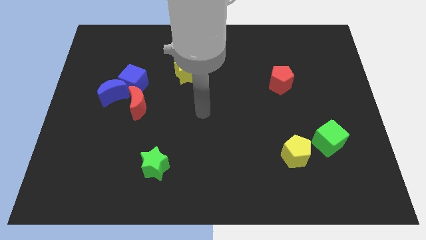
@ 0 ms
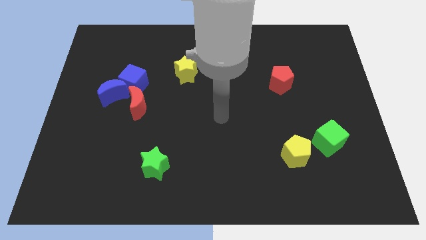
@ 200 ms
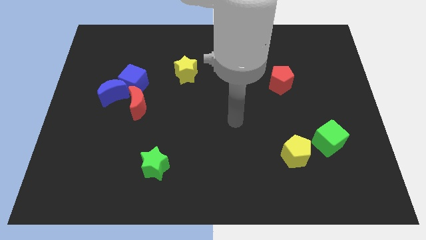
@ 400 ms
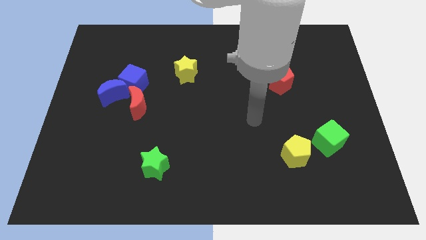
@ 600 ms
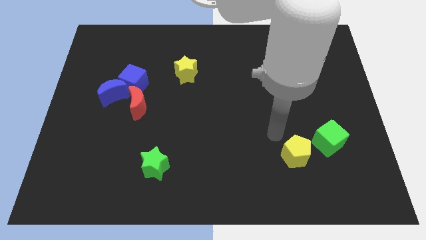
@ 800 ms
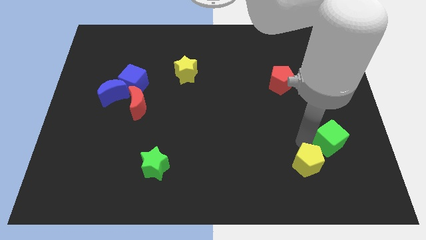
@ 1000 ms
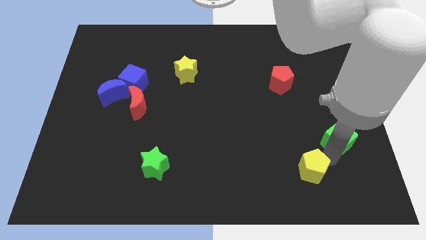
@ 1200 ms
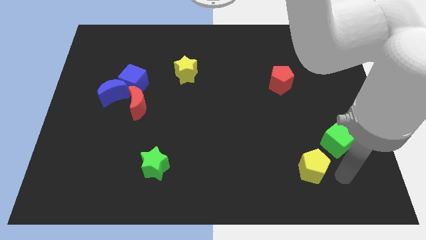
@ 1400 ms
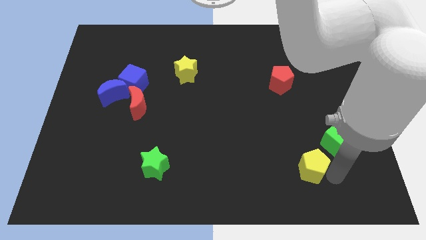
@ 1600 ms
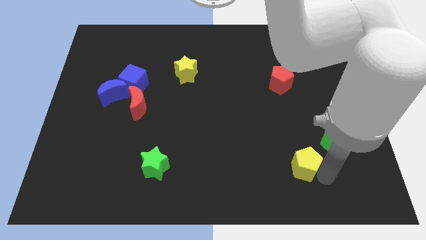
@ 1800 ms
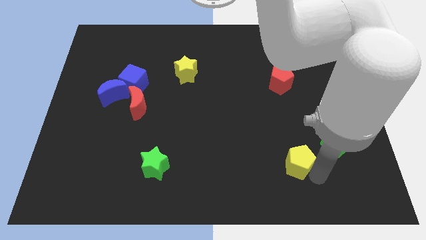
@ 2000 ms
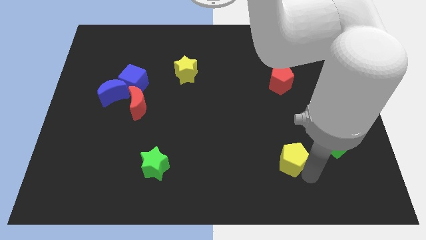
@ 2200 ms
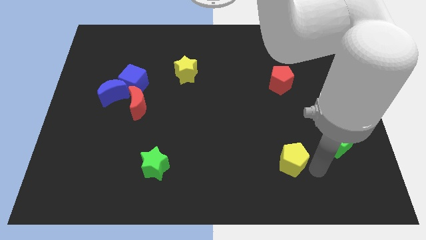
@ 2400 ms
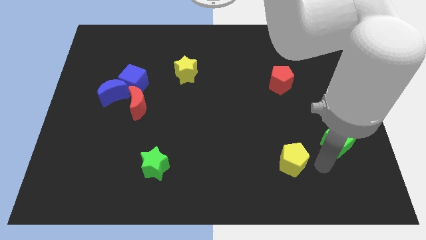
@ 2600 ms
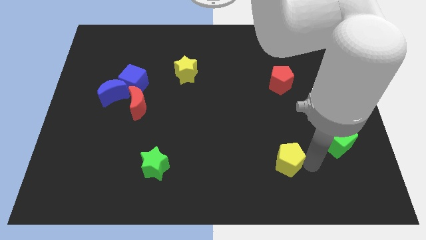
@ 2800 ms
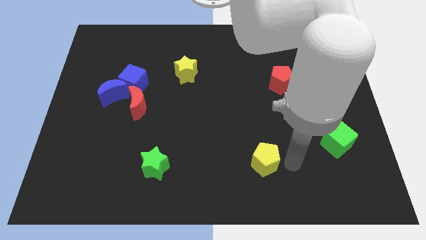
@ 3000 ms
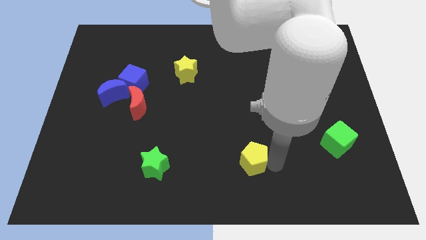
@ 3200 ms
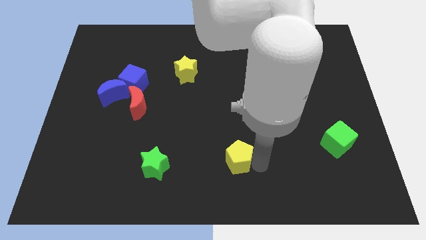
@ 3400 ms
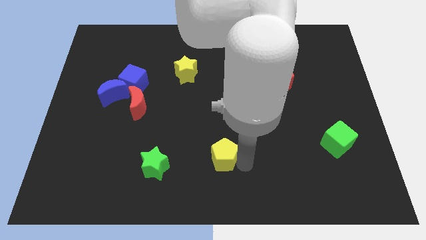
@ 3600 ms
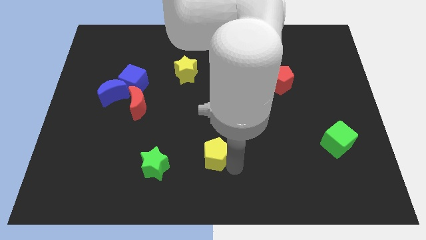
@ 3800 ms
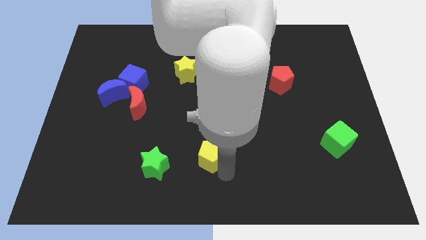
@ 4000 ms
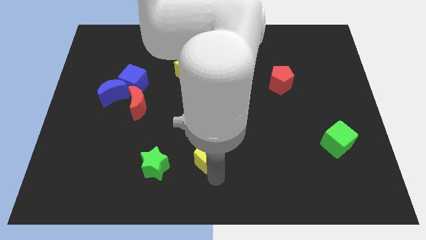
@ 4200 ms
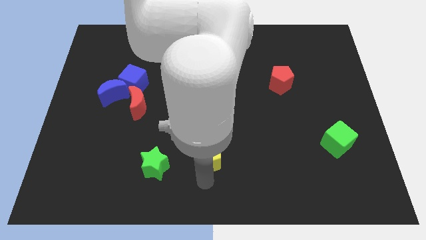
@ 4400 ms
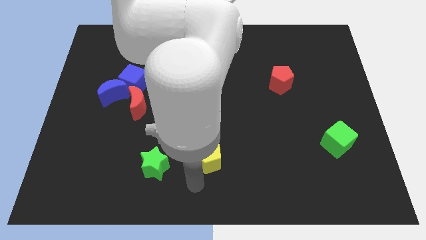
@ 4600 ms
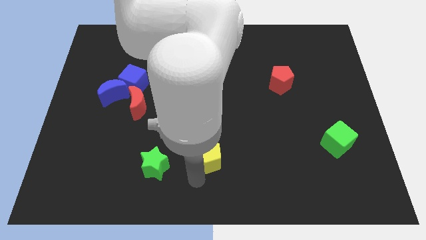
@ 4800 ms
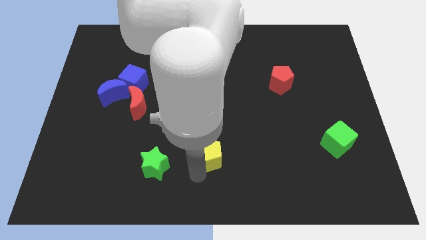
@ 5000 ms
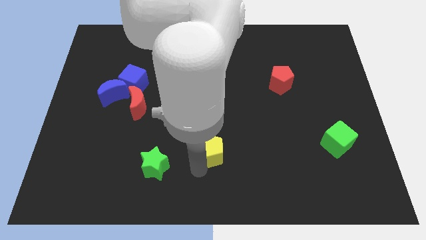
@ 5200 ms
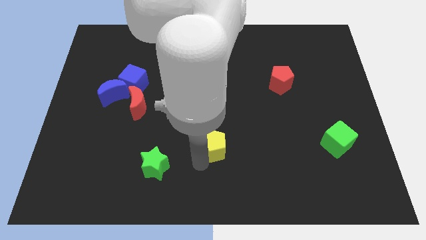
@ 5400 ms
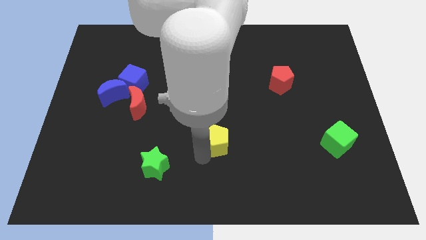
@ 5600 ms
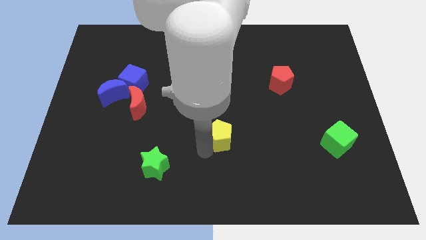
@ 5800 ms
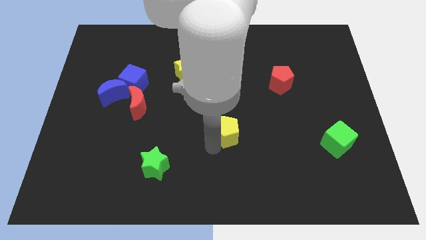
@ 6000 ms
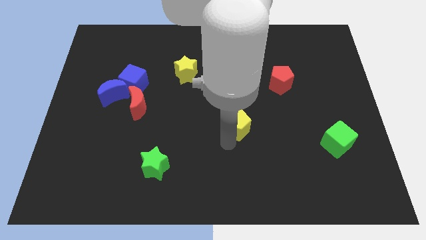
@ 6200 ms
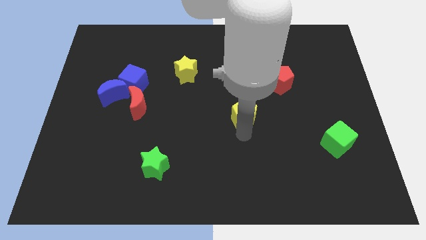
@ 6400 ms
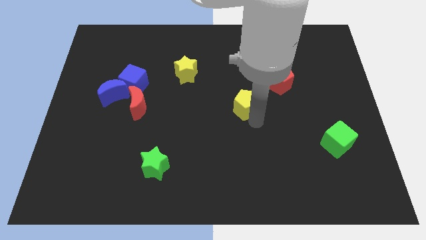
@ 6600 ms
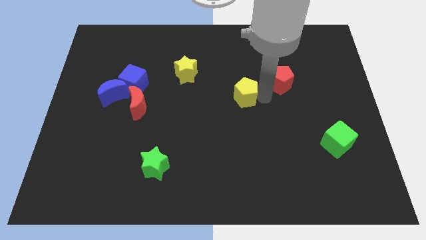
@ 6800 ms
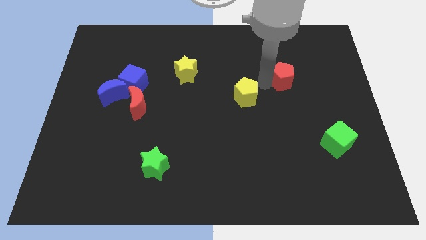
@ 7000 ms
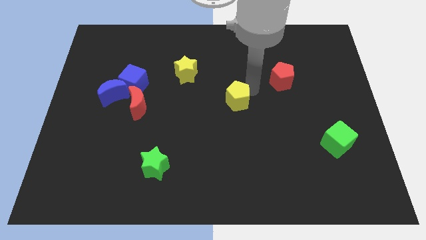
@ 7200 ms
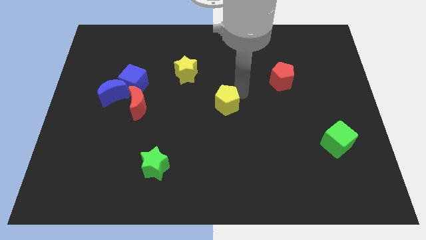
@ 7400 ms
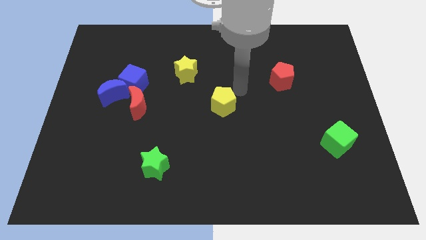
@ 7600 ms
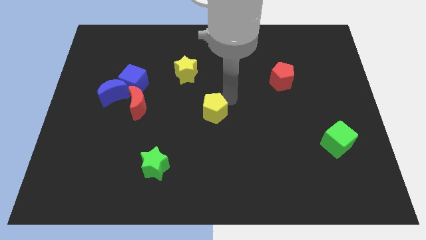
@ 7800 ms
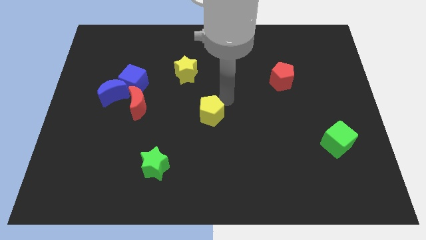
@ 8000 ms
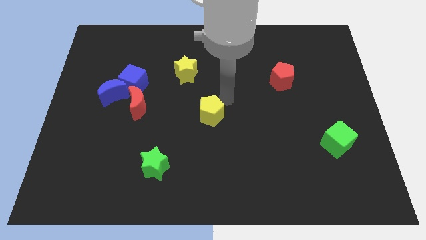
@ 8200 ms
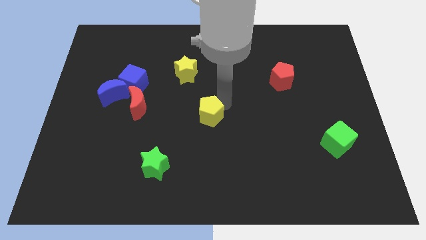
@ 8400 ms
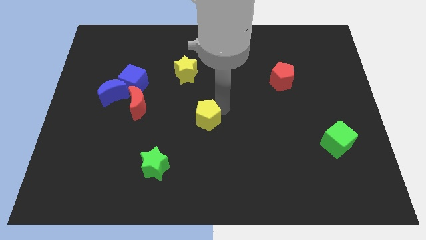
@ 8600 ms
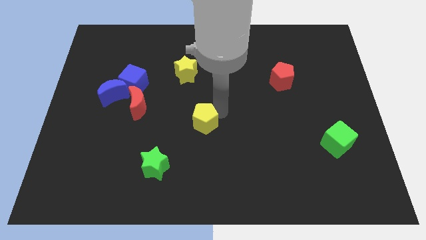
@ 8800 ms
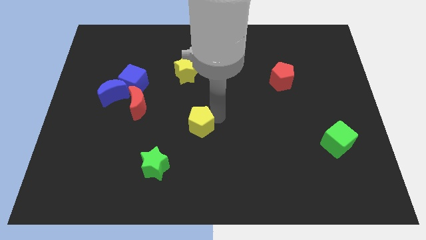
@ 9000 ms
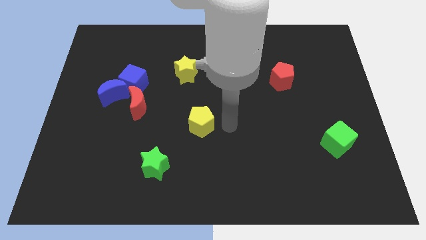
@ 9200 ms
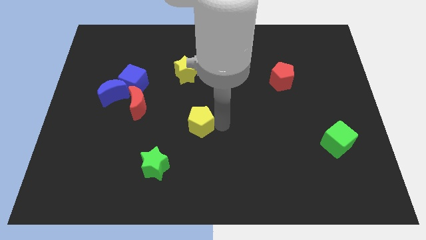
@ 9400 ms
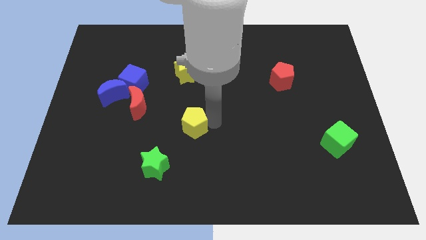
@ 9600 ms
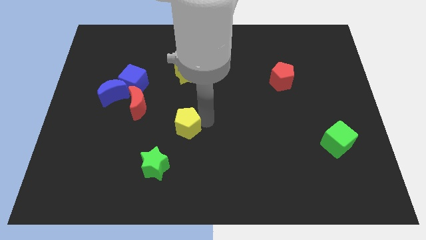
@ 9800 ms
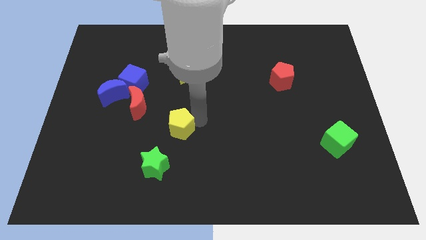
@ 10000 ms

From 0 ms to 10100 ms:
put the yellow pentagon to the bottom right of the red moon

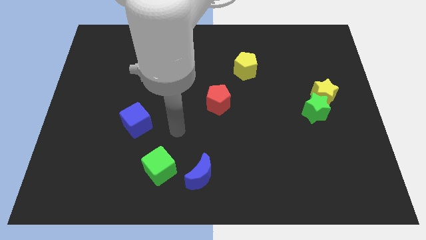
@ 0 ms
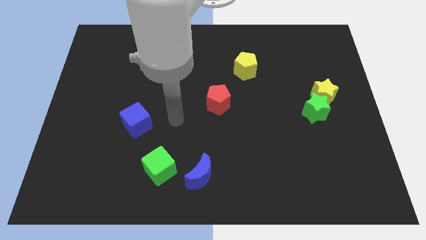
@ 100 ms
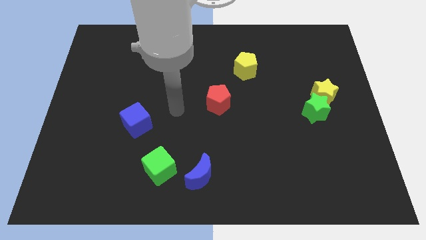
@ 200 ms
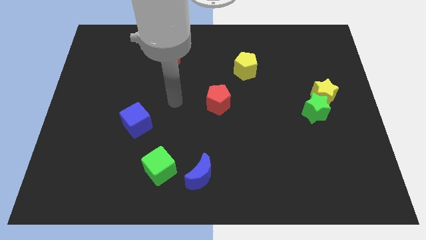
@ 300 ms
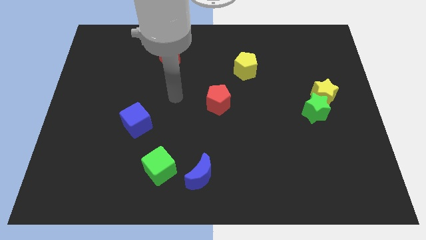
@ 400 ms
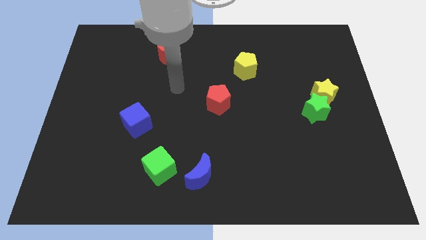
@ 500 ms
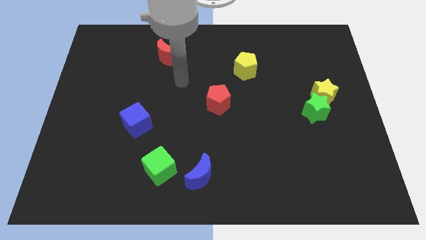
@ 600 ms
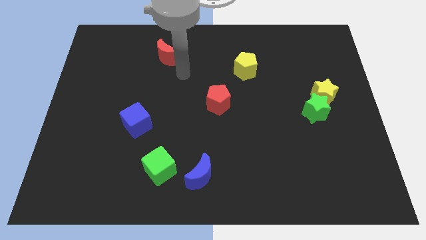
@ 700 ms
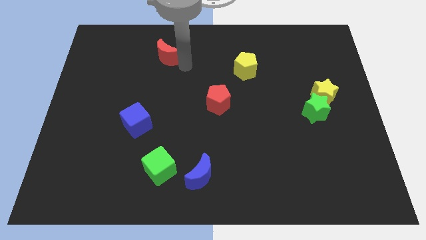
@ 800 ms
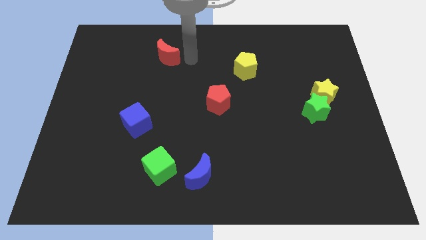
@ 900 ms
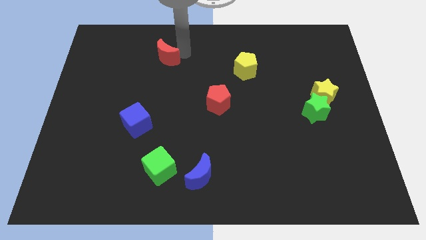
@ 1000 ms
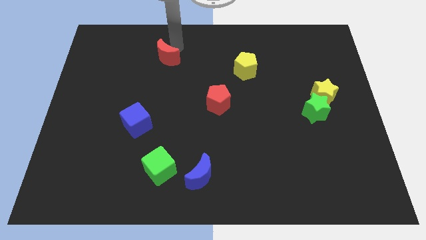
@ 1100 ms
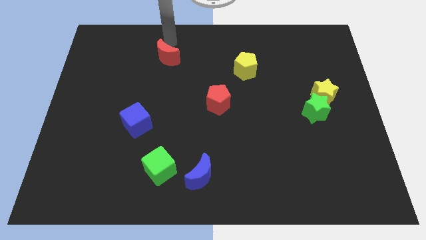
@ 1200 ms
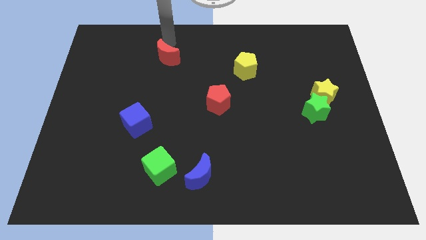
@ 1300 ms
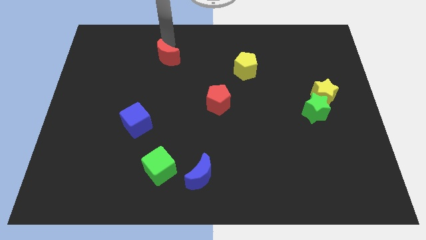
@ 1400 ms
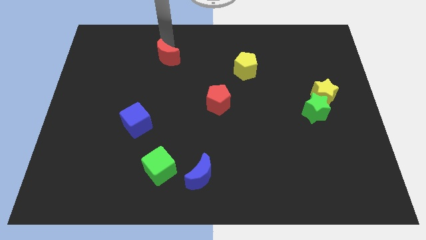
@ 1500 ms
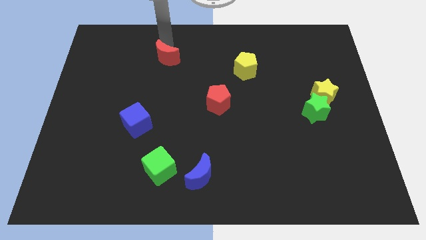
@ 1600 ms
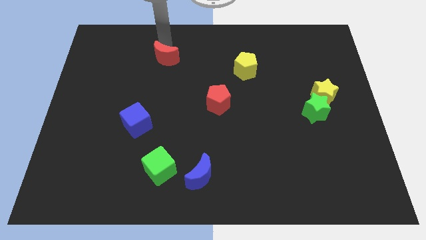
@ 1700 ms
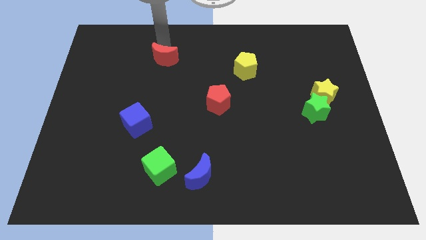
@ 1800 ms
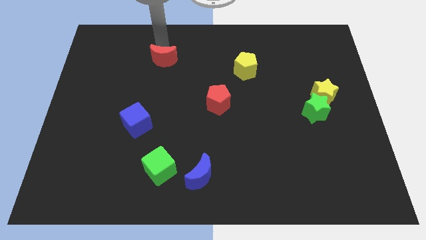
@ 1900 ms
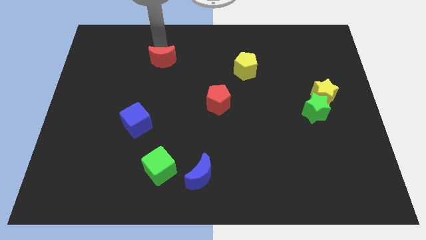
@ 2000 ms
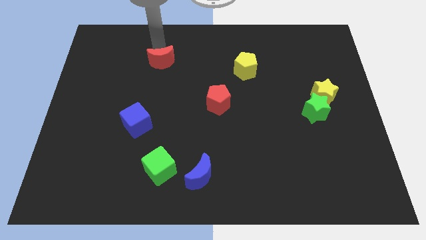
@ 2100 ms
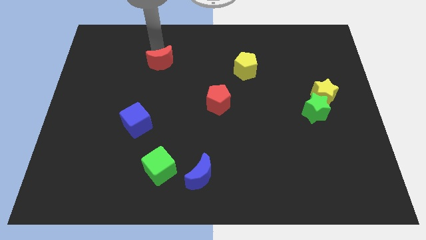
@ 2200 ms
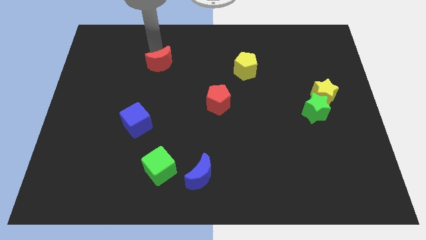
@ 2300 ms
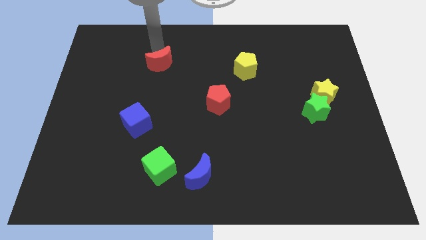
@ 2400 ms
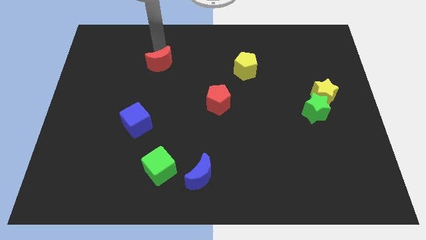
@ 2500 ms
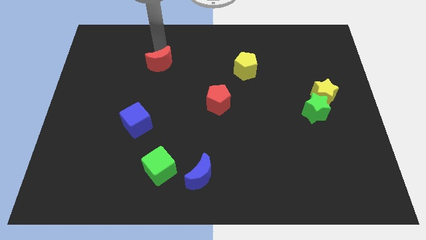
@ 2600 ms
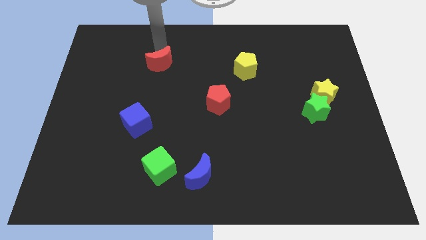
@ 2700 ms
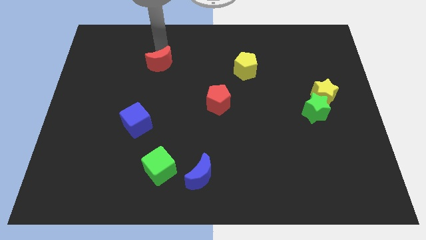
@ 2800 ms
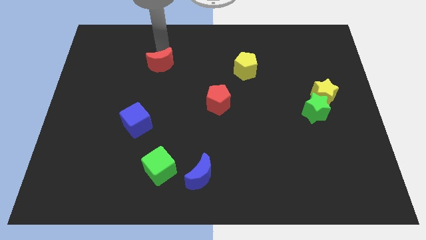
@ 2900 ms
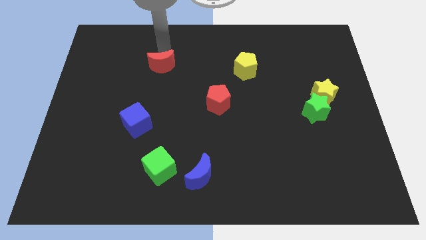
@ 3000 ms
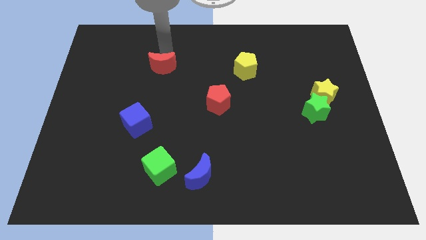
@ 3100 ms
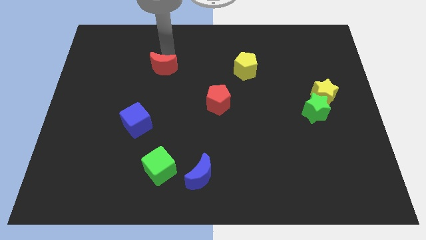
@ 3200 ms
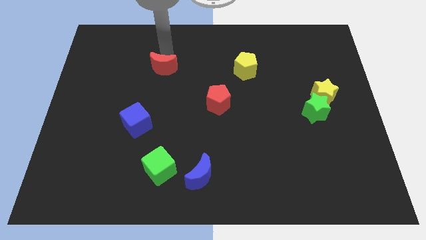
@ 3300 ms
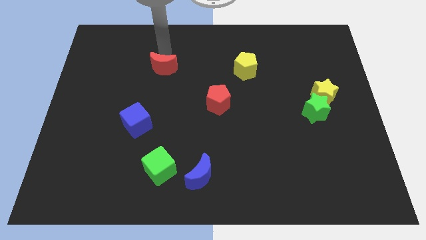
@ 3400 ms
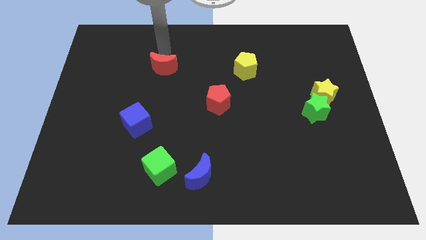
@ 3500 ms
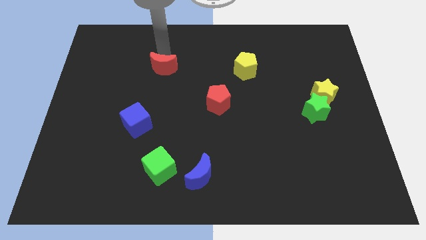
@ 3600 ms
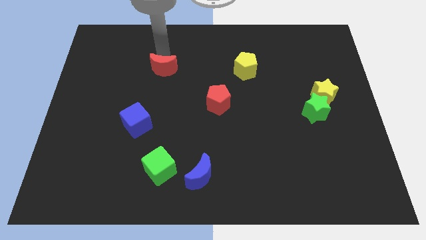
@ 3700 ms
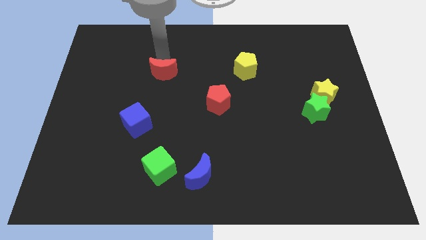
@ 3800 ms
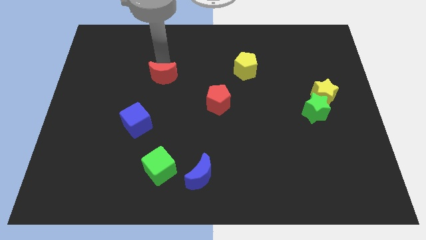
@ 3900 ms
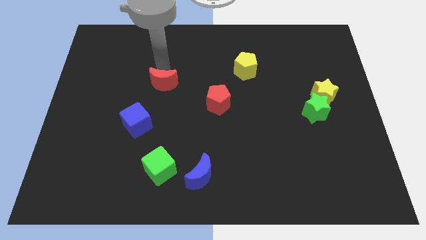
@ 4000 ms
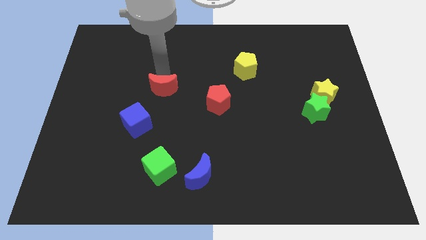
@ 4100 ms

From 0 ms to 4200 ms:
slide the red moon to the top right side of the blue cube
